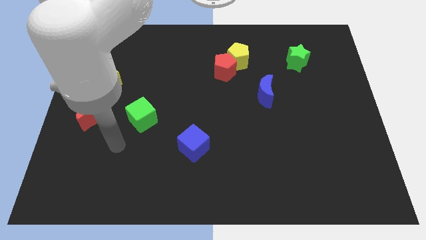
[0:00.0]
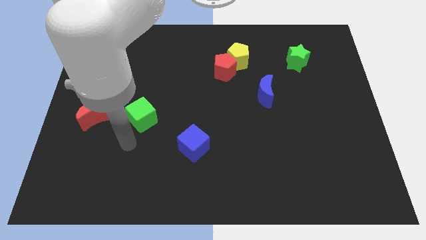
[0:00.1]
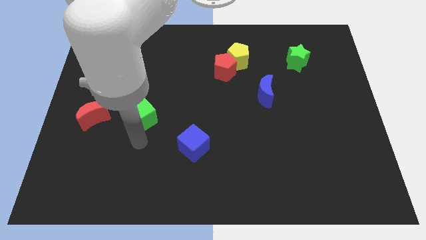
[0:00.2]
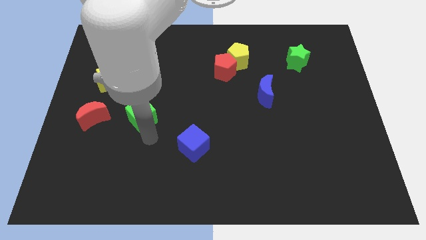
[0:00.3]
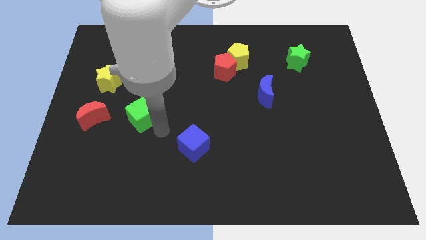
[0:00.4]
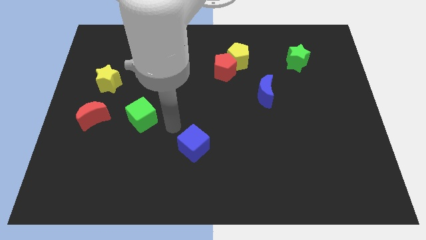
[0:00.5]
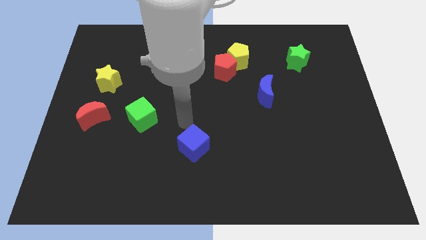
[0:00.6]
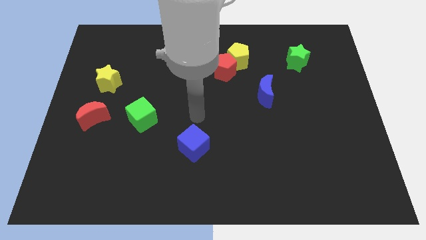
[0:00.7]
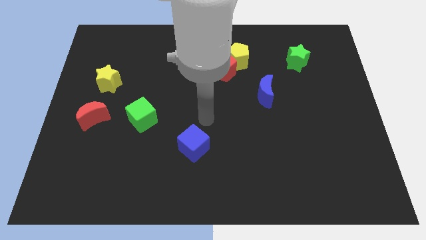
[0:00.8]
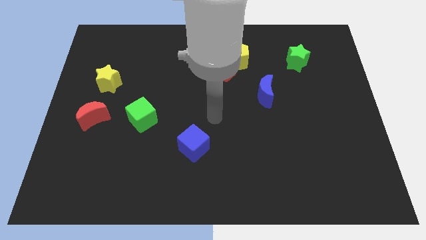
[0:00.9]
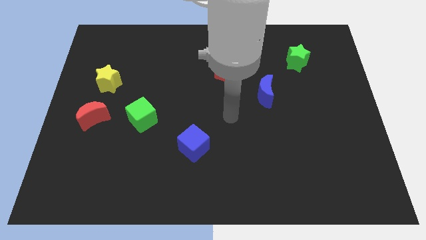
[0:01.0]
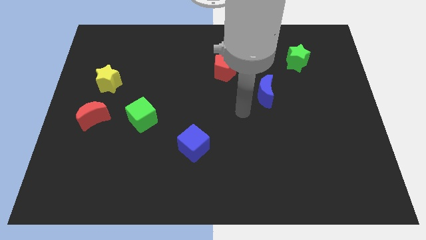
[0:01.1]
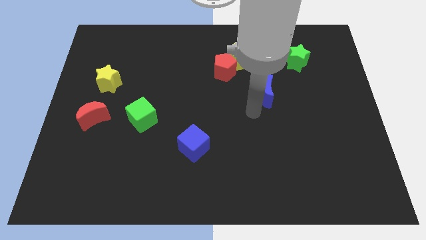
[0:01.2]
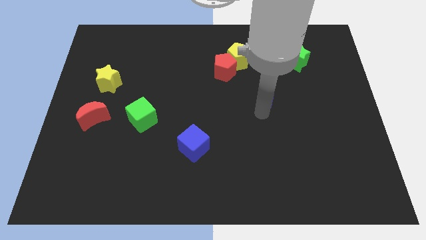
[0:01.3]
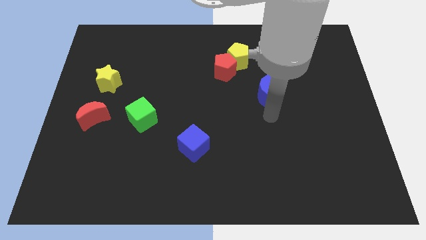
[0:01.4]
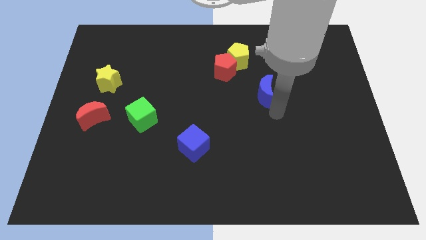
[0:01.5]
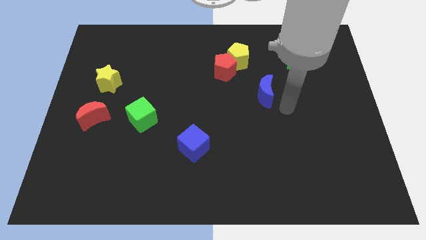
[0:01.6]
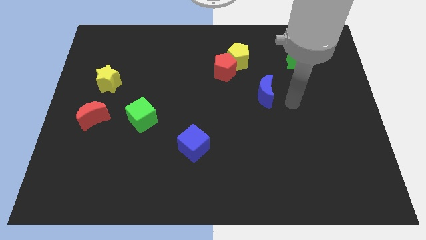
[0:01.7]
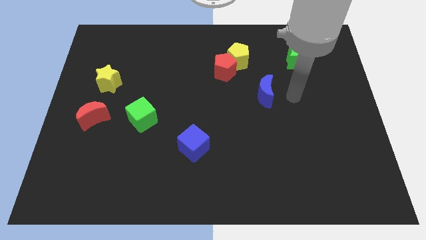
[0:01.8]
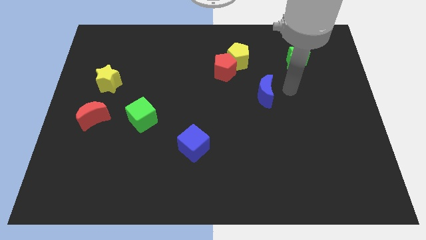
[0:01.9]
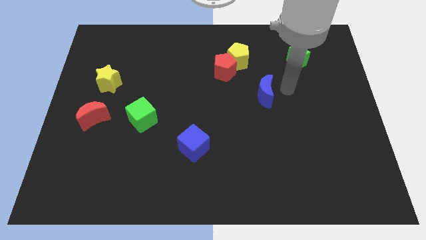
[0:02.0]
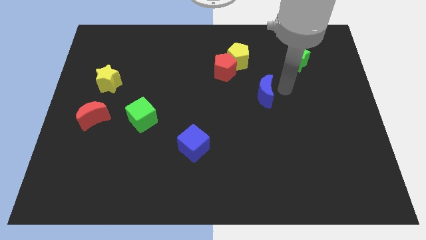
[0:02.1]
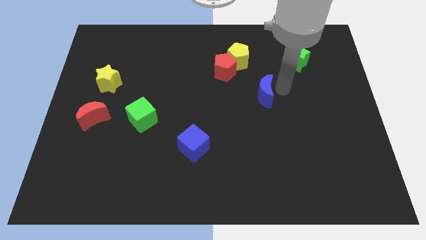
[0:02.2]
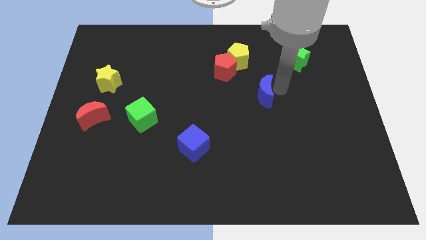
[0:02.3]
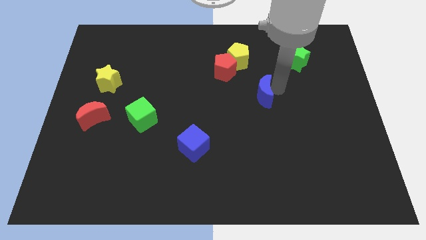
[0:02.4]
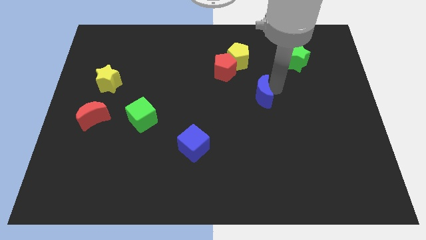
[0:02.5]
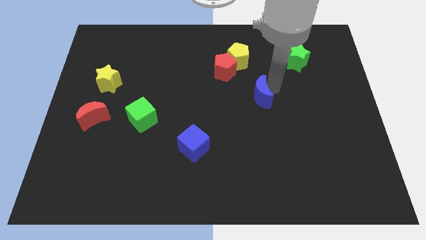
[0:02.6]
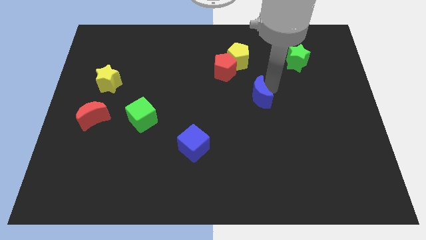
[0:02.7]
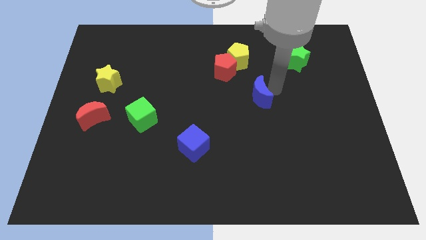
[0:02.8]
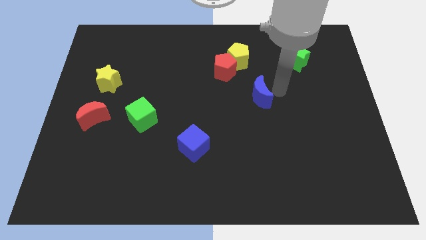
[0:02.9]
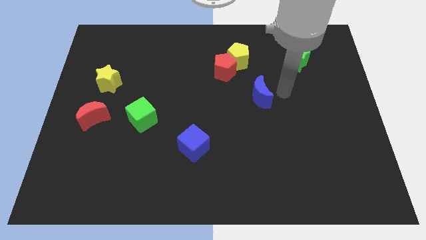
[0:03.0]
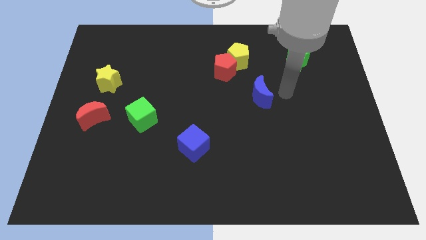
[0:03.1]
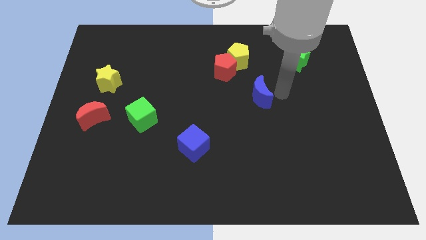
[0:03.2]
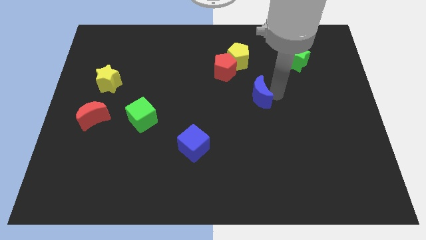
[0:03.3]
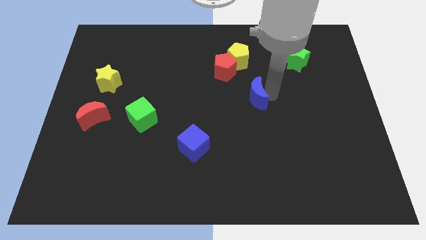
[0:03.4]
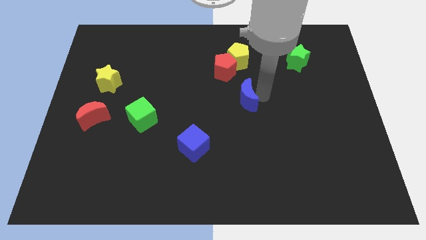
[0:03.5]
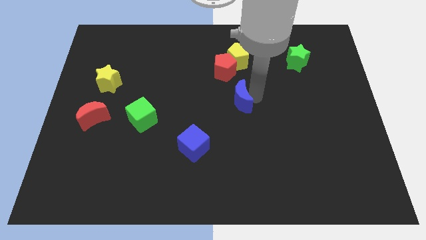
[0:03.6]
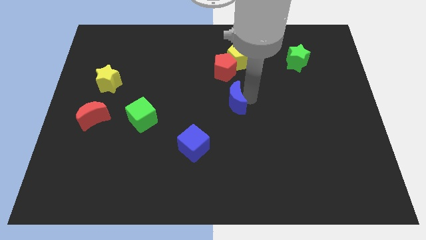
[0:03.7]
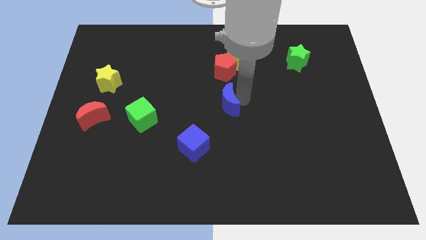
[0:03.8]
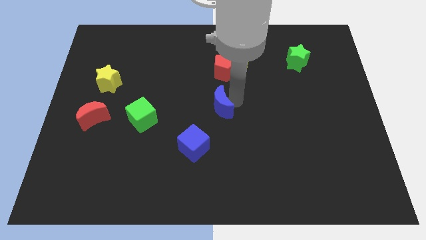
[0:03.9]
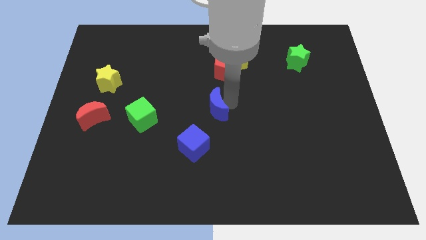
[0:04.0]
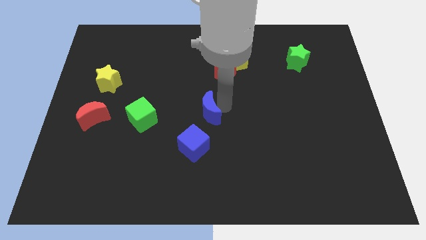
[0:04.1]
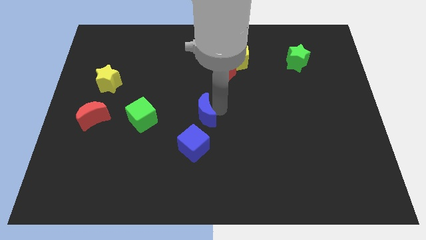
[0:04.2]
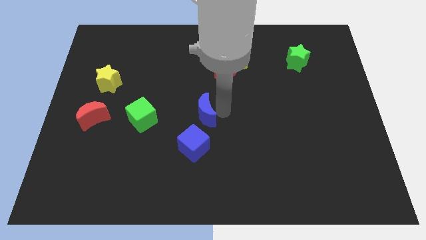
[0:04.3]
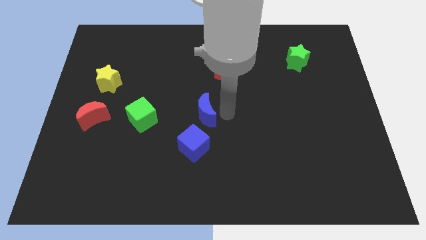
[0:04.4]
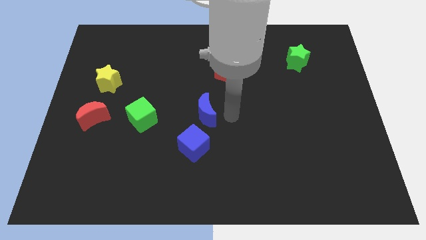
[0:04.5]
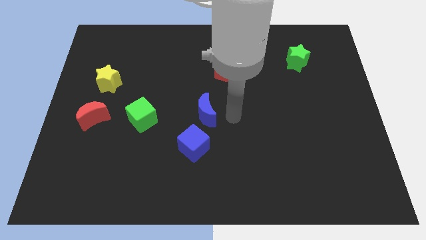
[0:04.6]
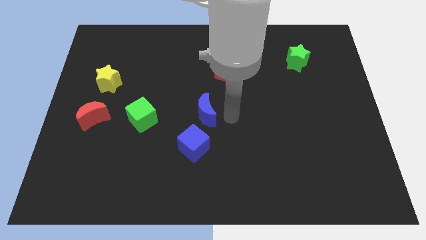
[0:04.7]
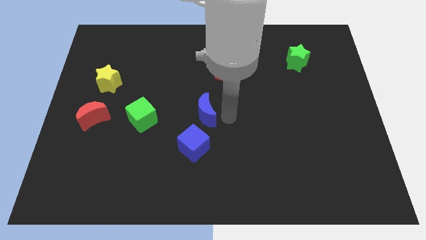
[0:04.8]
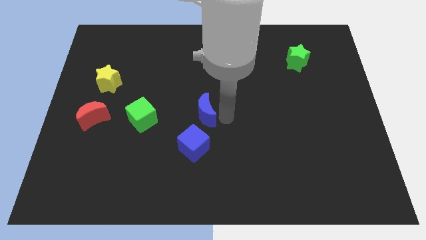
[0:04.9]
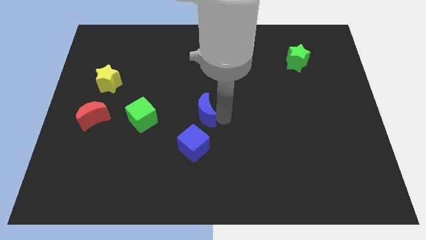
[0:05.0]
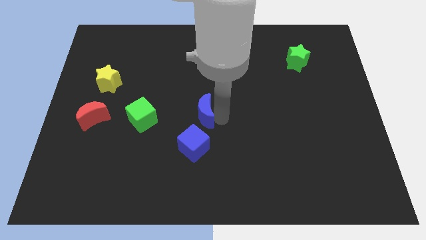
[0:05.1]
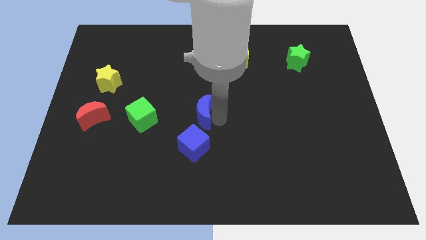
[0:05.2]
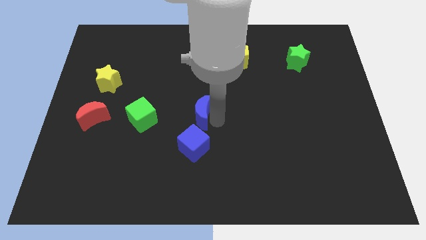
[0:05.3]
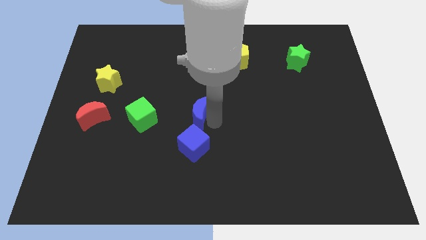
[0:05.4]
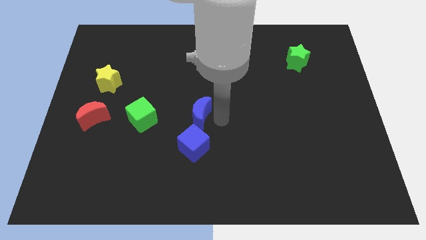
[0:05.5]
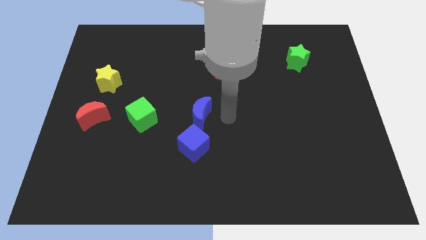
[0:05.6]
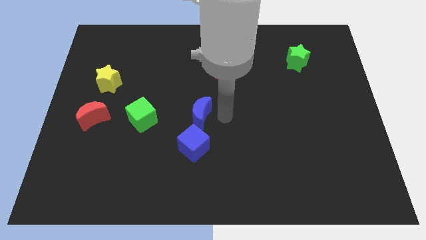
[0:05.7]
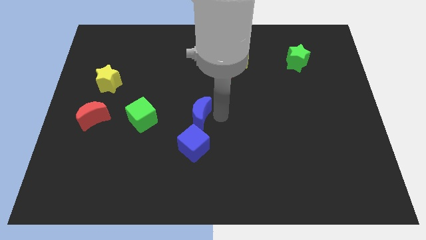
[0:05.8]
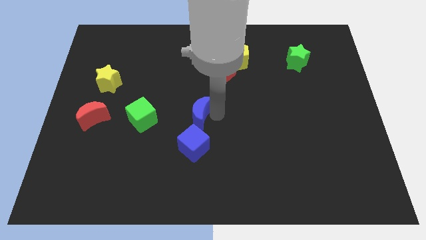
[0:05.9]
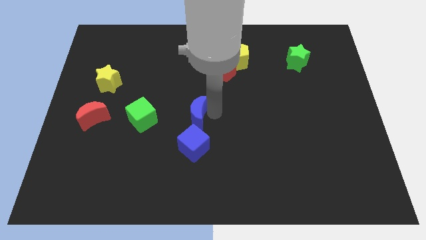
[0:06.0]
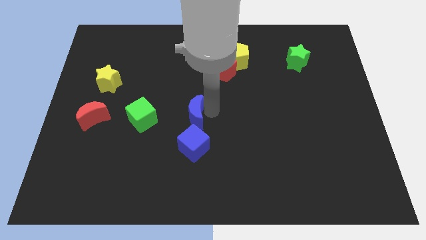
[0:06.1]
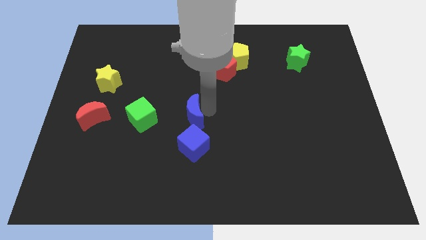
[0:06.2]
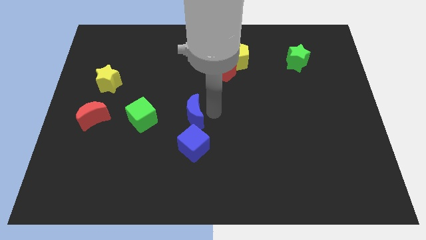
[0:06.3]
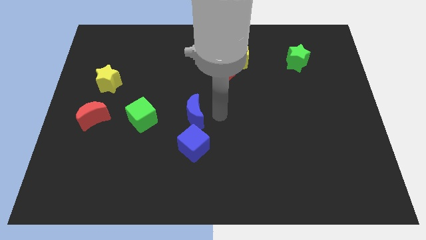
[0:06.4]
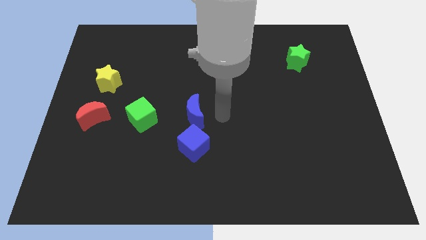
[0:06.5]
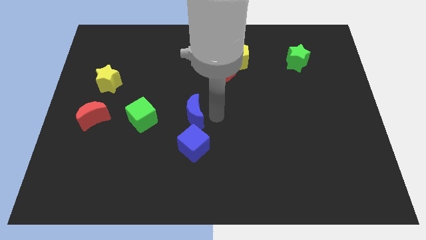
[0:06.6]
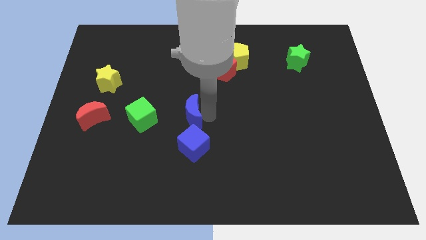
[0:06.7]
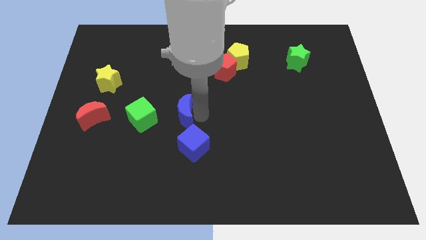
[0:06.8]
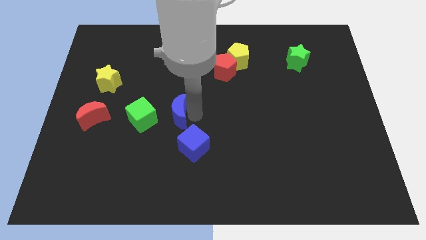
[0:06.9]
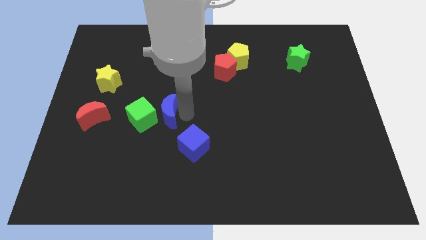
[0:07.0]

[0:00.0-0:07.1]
put the blue moon next to the green cube
